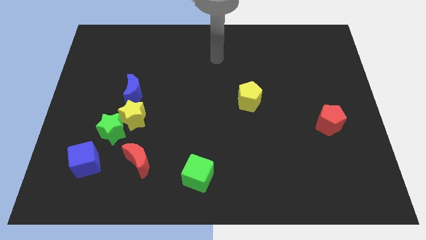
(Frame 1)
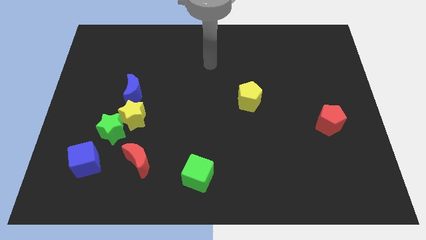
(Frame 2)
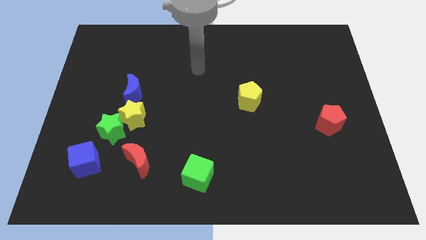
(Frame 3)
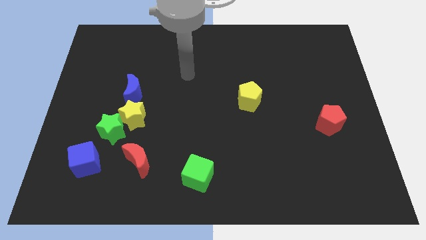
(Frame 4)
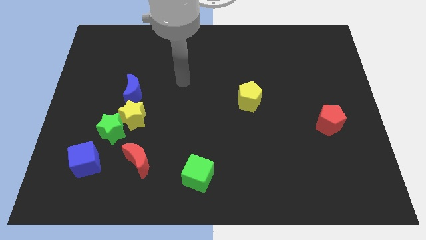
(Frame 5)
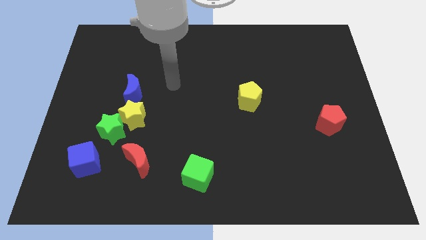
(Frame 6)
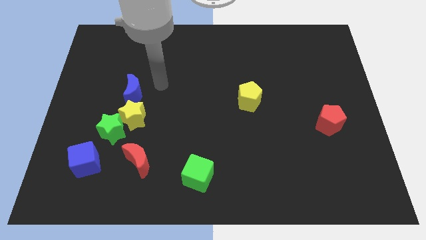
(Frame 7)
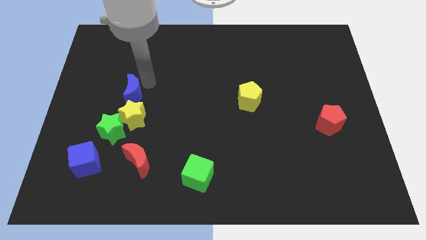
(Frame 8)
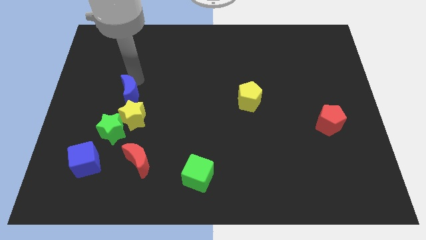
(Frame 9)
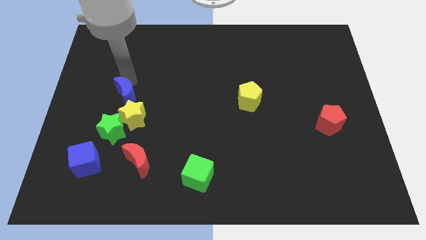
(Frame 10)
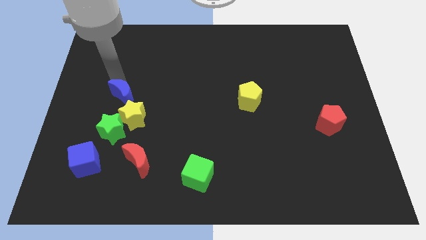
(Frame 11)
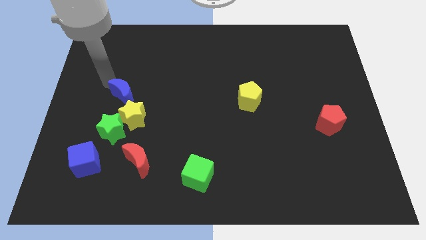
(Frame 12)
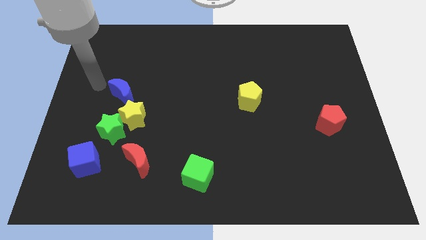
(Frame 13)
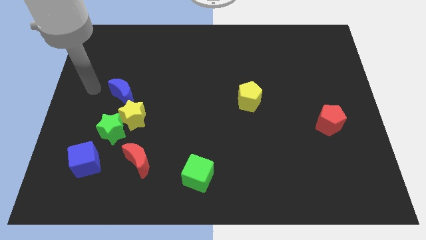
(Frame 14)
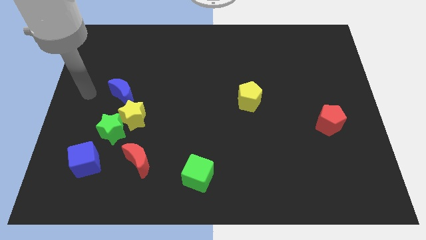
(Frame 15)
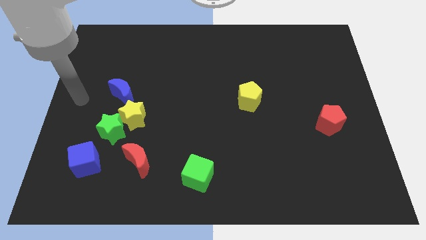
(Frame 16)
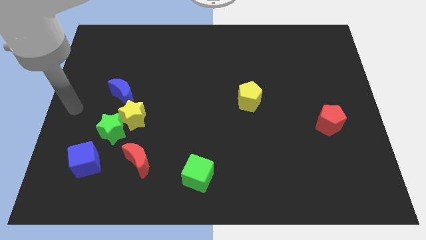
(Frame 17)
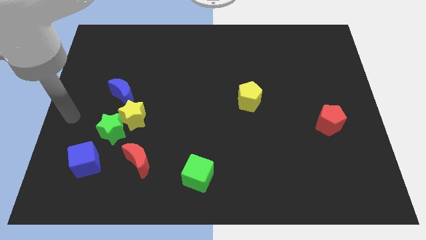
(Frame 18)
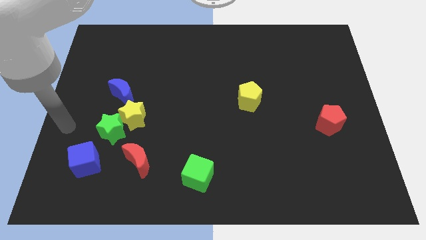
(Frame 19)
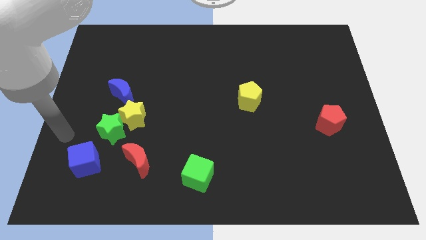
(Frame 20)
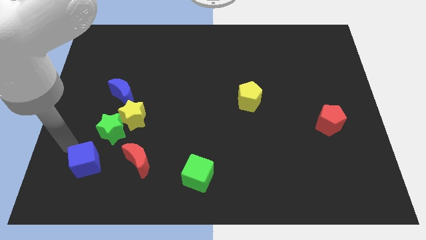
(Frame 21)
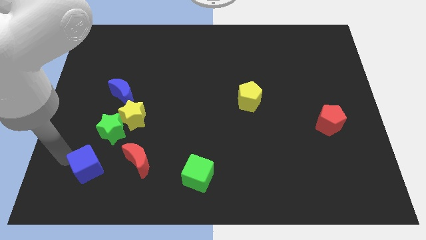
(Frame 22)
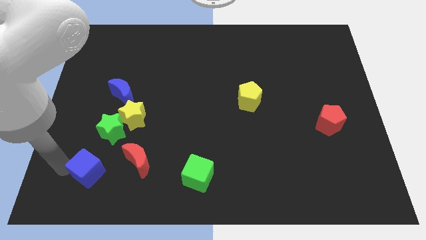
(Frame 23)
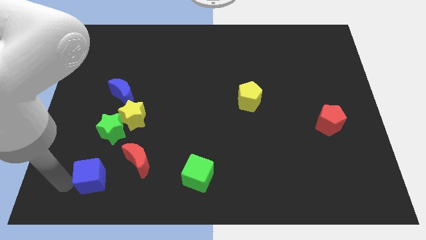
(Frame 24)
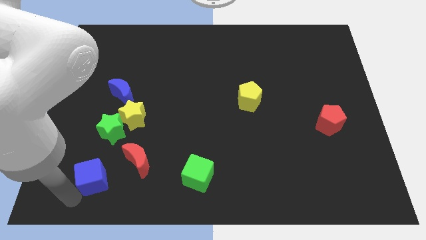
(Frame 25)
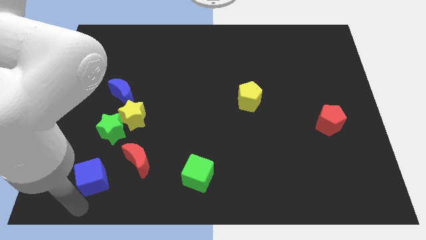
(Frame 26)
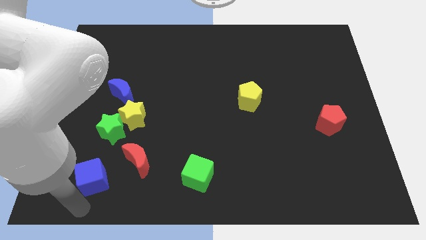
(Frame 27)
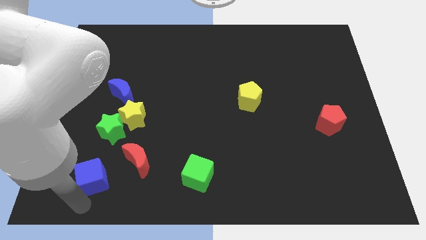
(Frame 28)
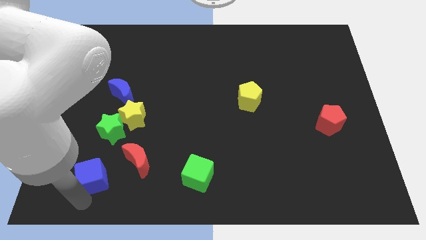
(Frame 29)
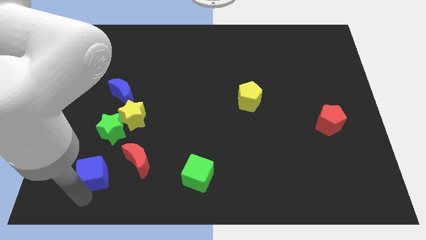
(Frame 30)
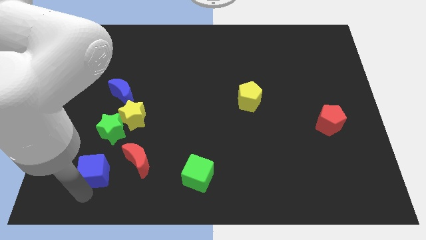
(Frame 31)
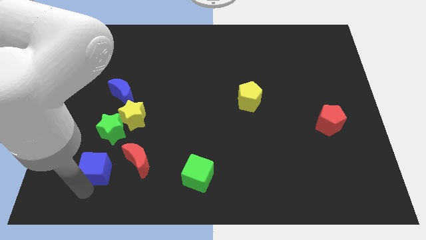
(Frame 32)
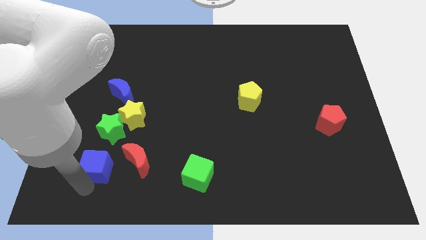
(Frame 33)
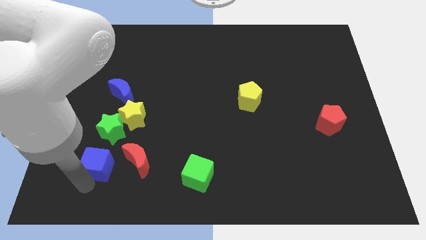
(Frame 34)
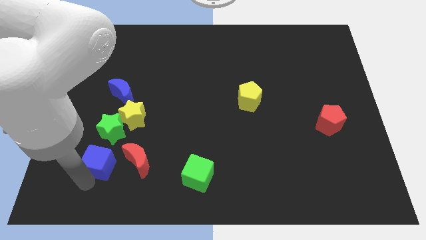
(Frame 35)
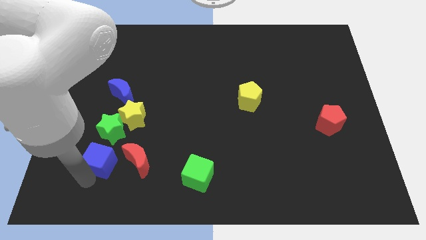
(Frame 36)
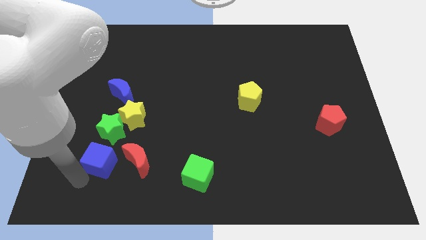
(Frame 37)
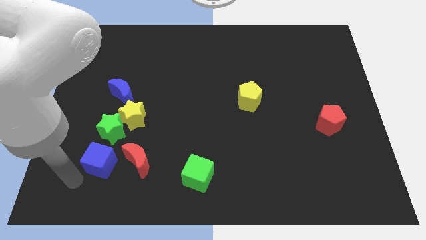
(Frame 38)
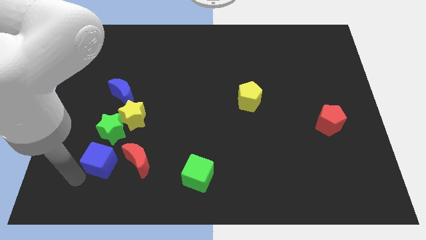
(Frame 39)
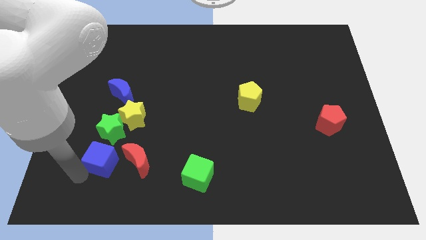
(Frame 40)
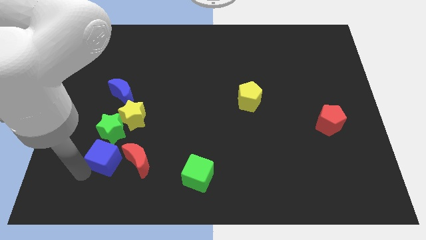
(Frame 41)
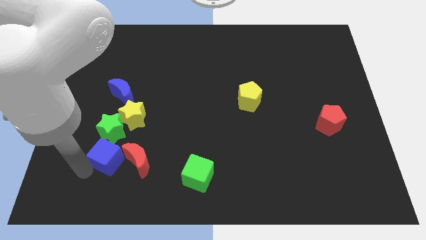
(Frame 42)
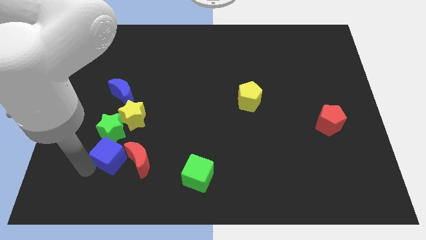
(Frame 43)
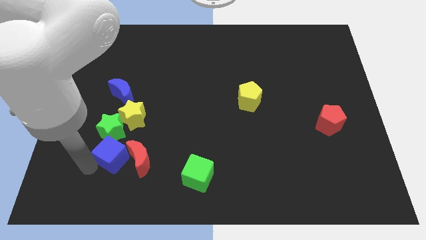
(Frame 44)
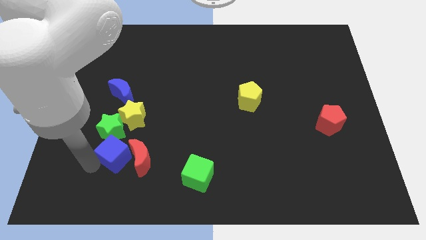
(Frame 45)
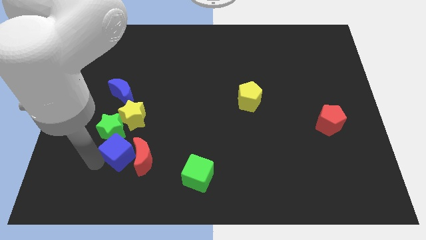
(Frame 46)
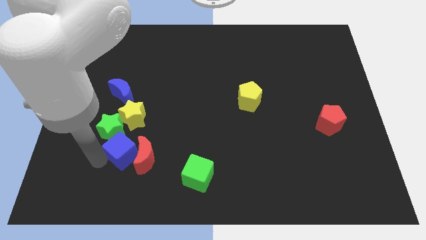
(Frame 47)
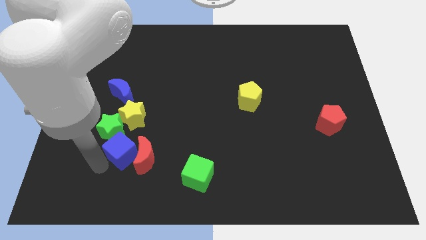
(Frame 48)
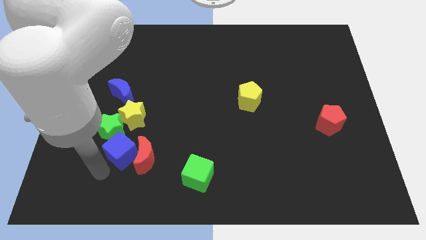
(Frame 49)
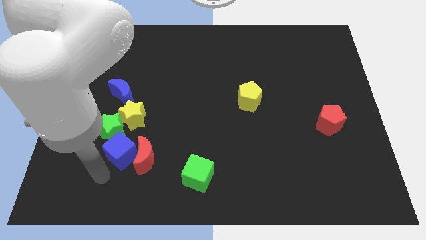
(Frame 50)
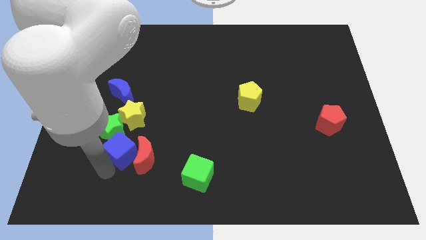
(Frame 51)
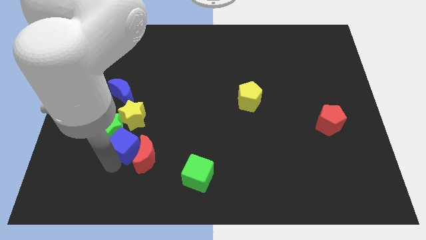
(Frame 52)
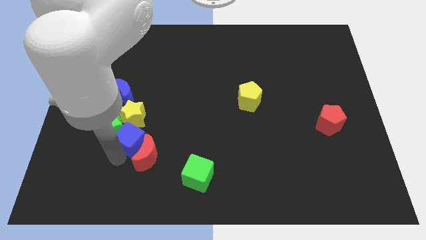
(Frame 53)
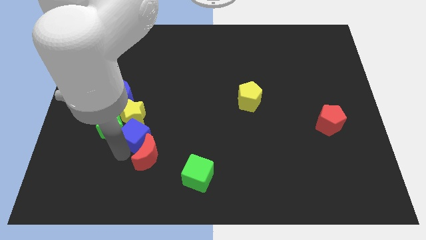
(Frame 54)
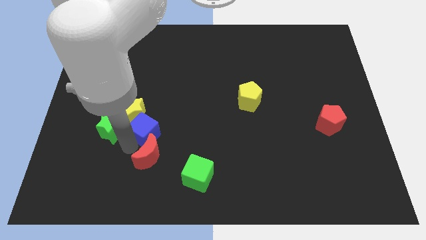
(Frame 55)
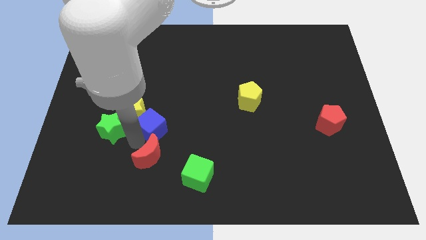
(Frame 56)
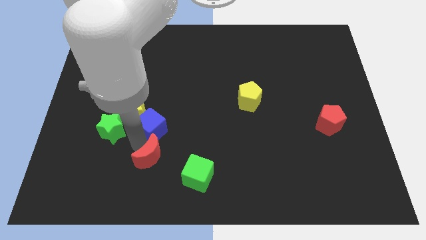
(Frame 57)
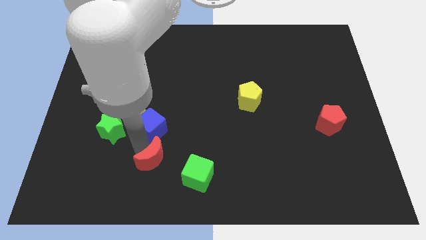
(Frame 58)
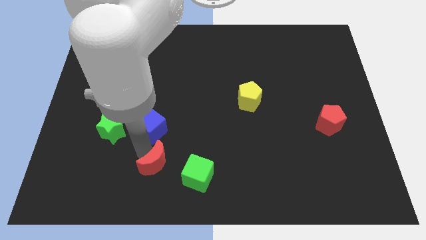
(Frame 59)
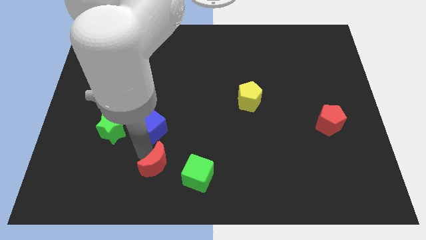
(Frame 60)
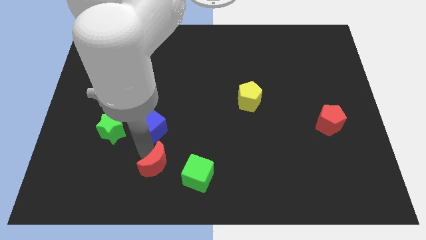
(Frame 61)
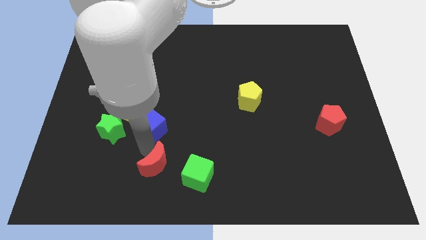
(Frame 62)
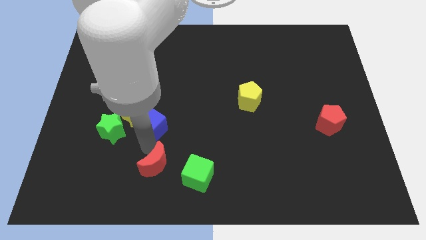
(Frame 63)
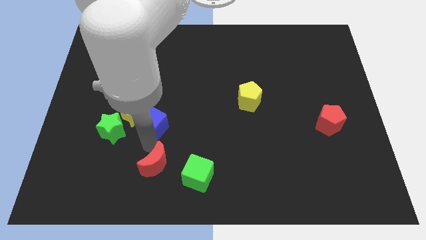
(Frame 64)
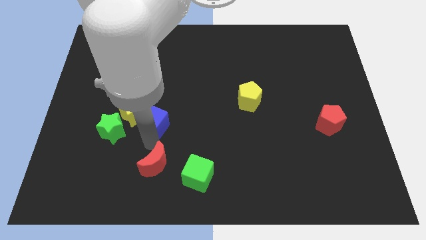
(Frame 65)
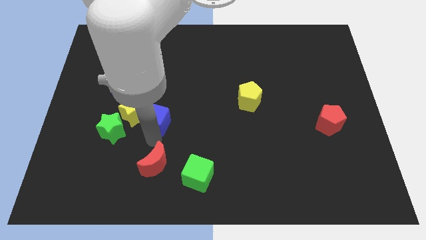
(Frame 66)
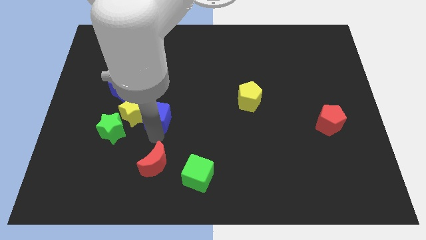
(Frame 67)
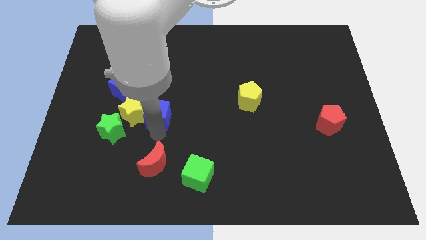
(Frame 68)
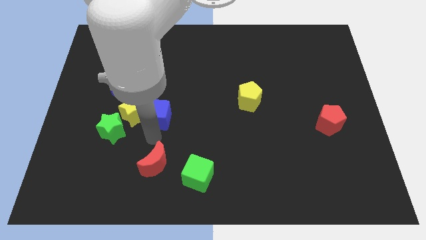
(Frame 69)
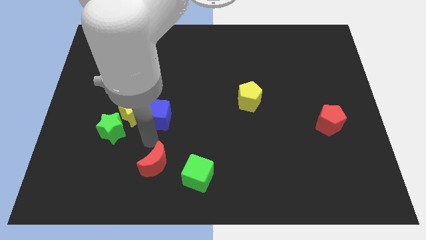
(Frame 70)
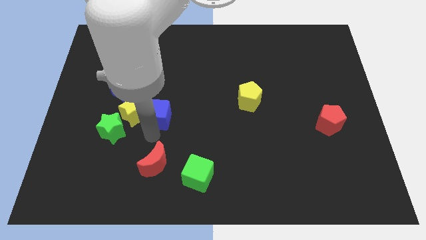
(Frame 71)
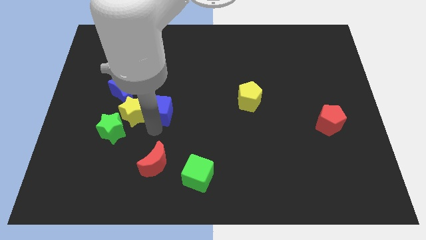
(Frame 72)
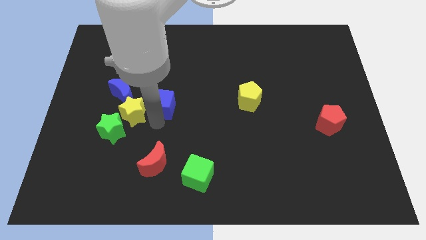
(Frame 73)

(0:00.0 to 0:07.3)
put the blue cube to the right side of the blue moon

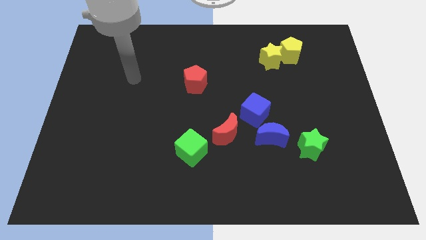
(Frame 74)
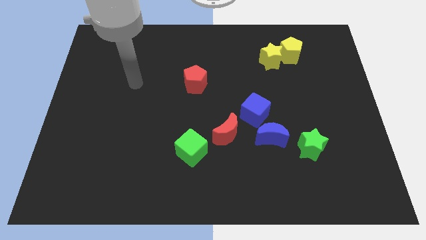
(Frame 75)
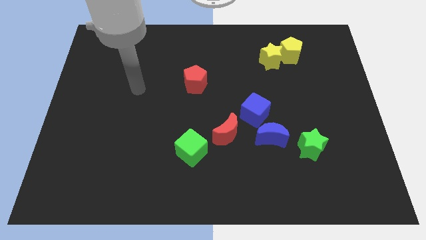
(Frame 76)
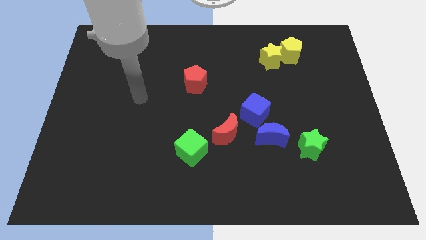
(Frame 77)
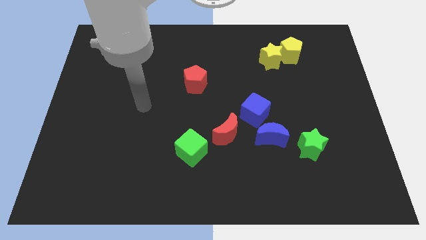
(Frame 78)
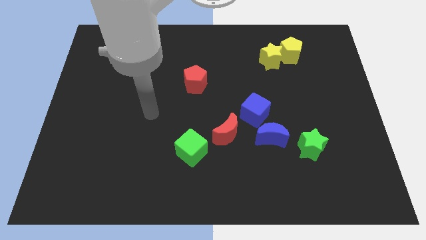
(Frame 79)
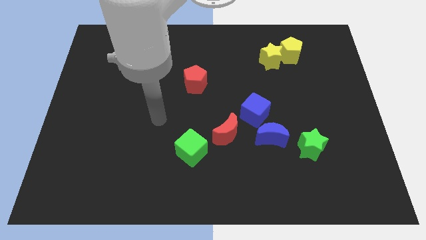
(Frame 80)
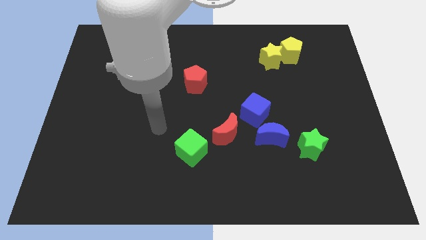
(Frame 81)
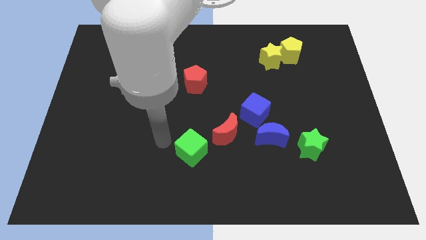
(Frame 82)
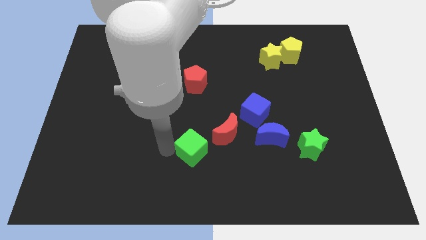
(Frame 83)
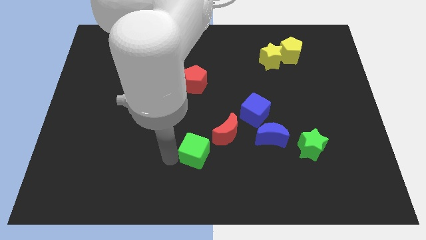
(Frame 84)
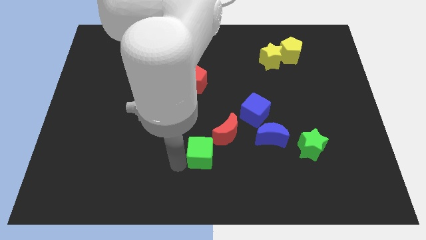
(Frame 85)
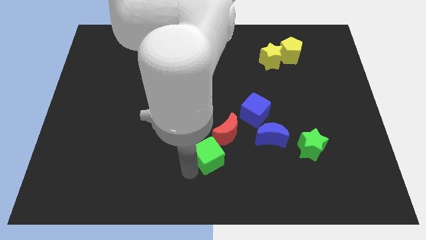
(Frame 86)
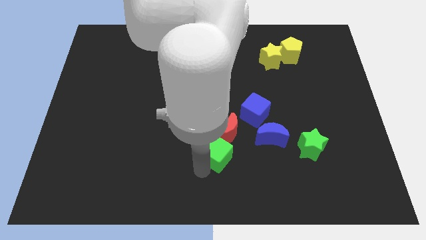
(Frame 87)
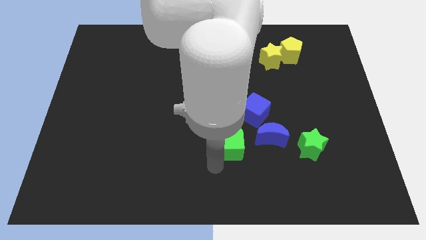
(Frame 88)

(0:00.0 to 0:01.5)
push the red moon to the left side of the blue cube
